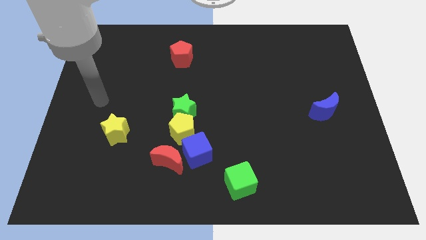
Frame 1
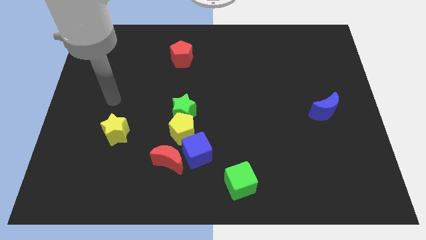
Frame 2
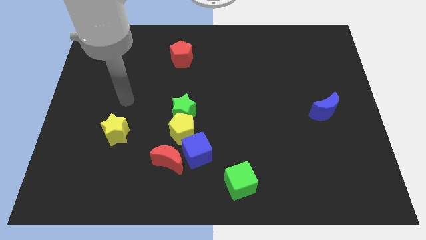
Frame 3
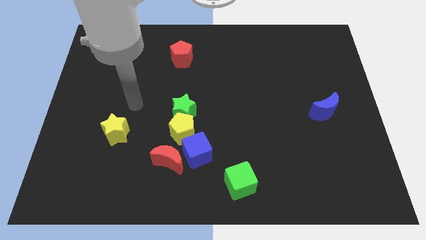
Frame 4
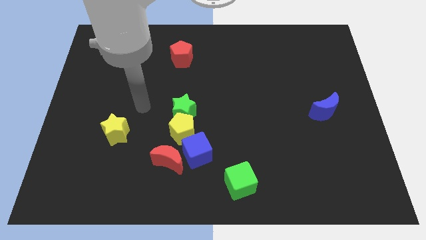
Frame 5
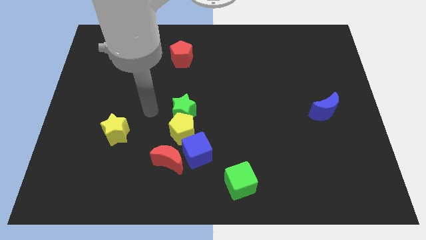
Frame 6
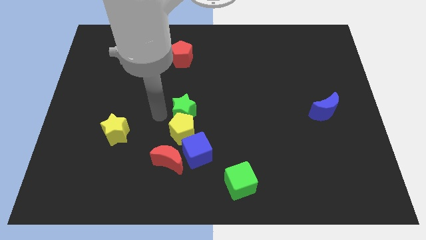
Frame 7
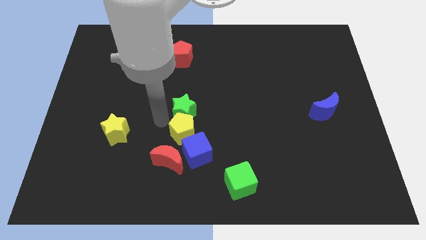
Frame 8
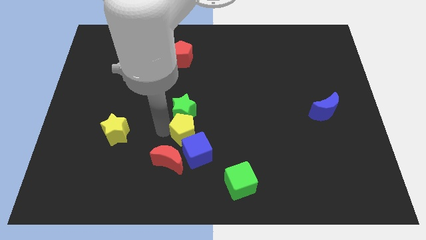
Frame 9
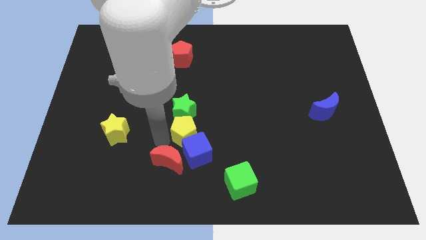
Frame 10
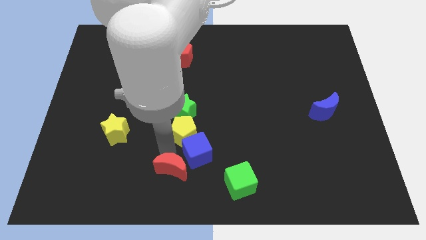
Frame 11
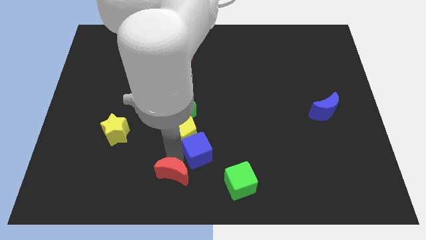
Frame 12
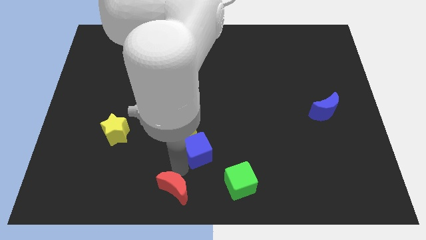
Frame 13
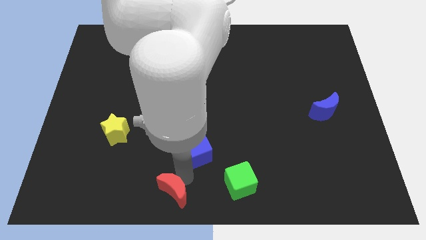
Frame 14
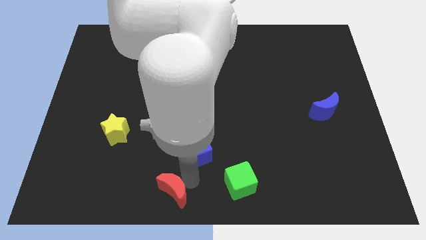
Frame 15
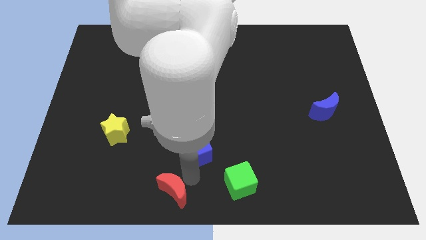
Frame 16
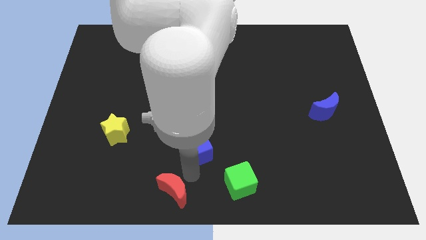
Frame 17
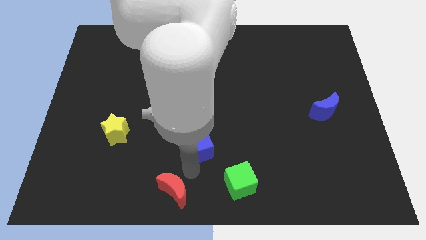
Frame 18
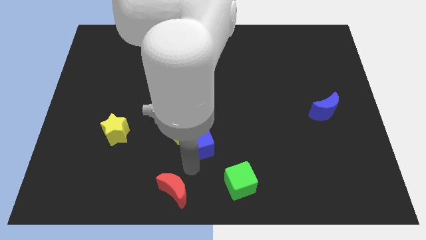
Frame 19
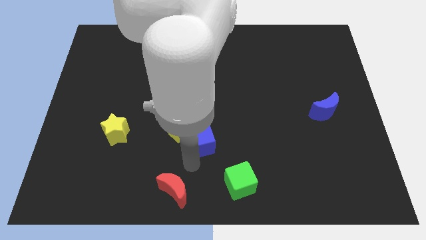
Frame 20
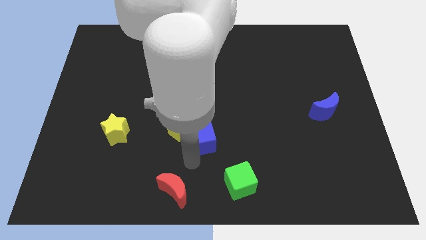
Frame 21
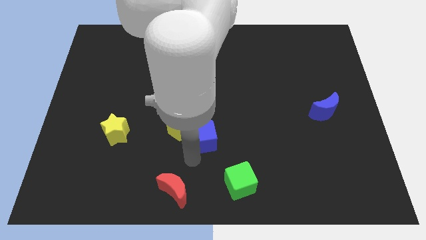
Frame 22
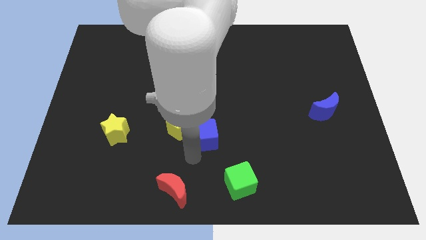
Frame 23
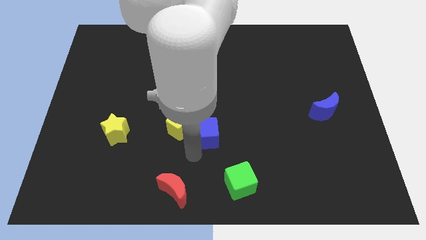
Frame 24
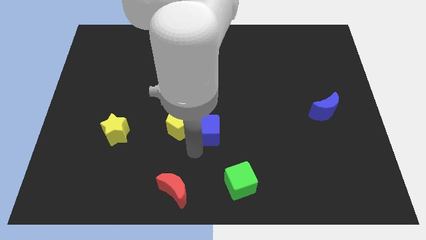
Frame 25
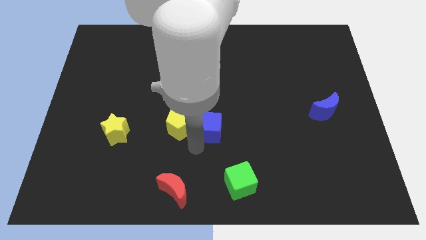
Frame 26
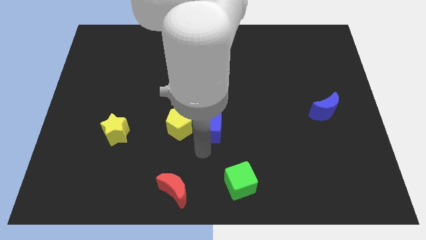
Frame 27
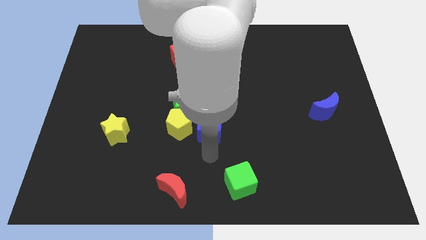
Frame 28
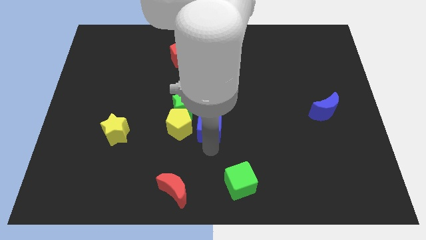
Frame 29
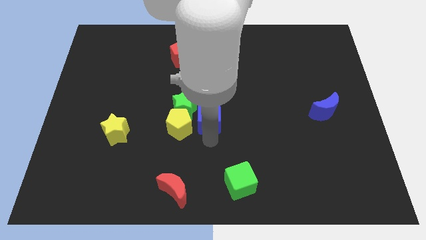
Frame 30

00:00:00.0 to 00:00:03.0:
move the blue cube a bit upwards

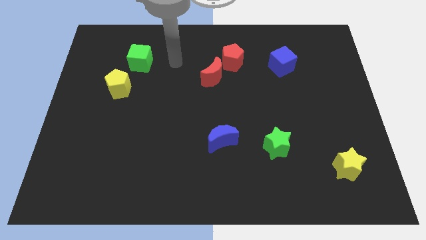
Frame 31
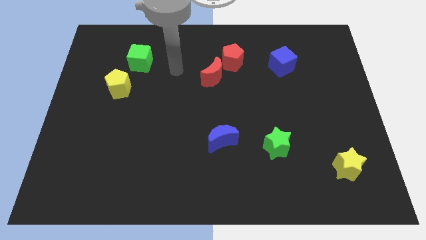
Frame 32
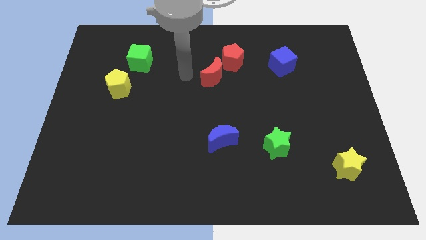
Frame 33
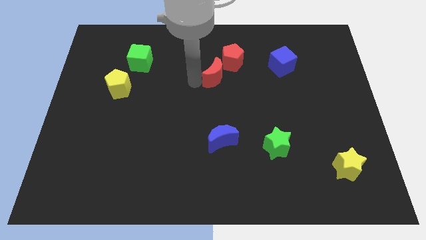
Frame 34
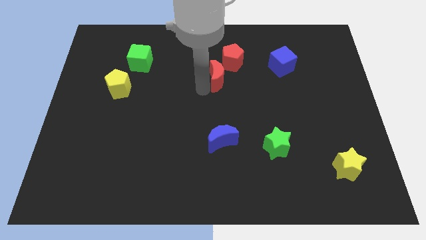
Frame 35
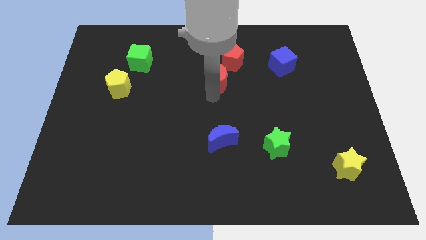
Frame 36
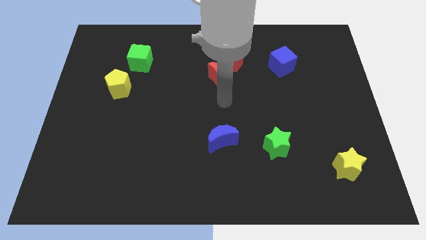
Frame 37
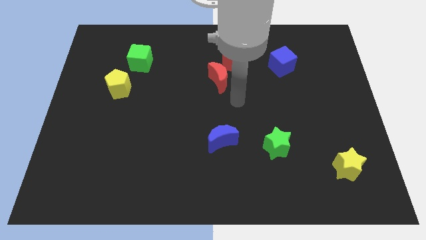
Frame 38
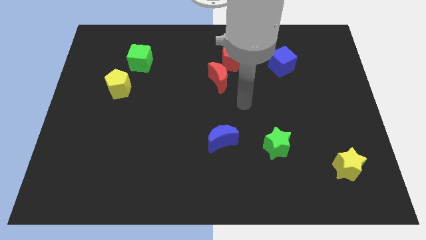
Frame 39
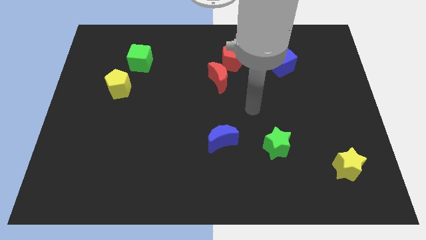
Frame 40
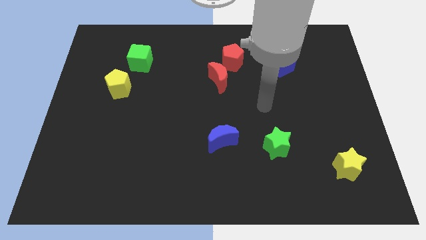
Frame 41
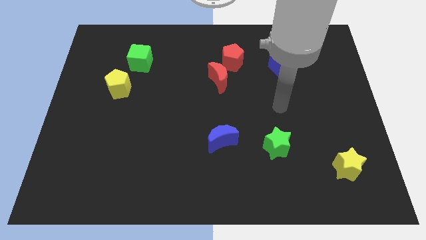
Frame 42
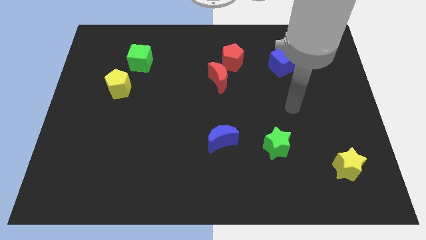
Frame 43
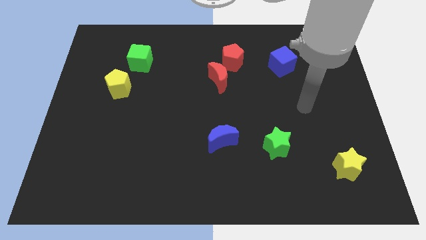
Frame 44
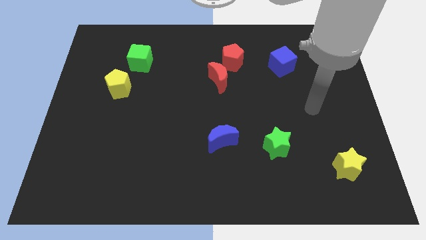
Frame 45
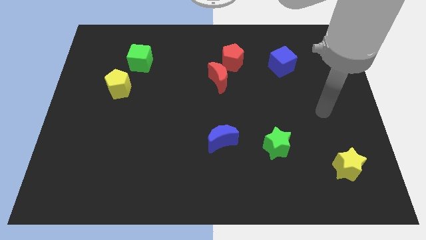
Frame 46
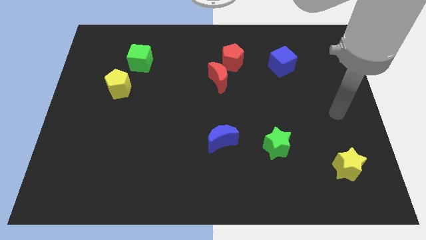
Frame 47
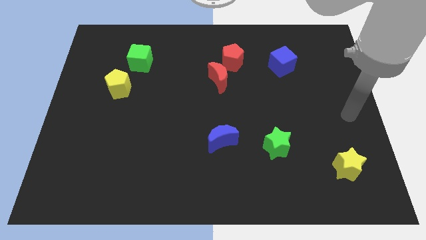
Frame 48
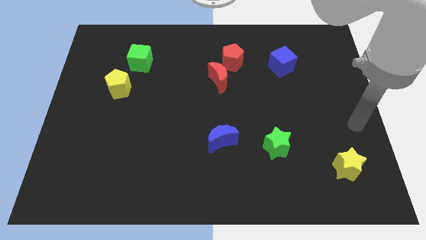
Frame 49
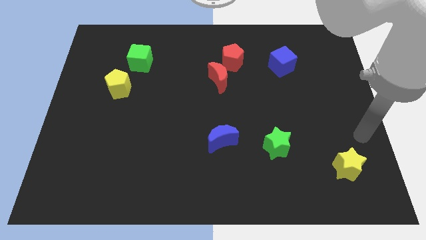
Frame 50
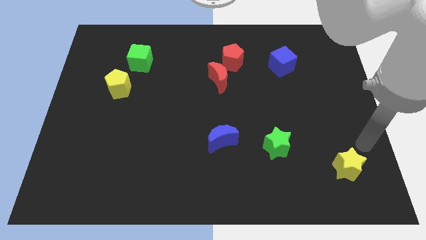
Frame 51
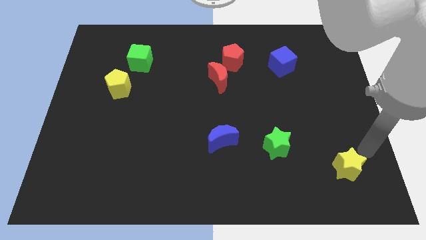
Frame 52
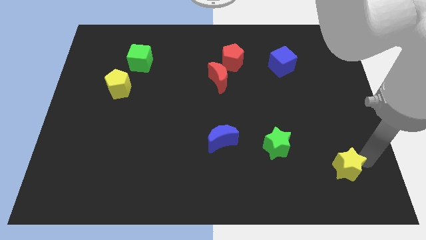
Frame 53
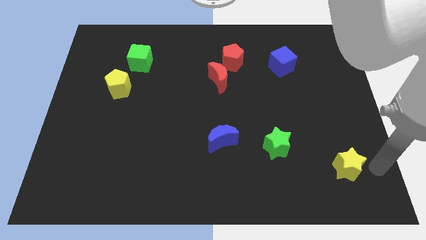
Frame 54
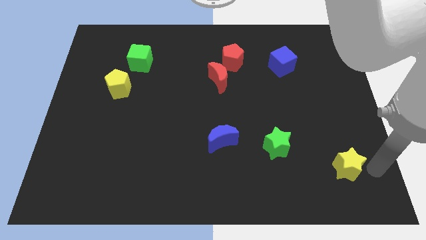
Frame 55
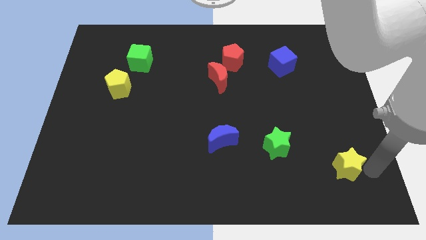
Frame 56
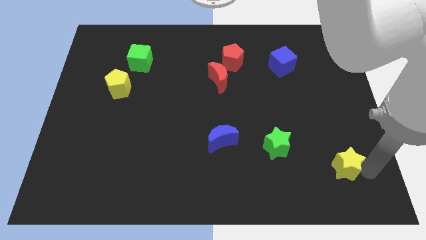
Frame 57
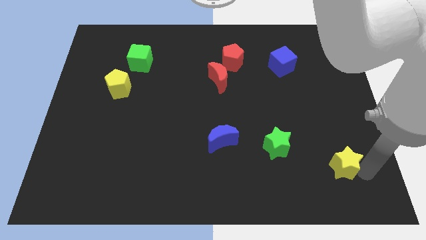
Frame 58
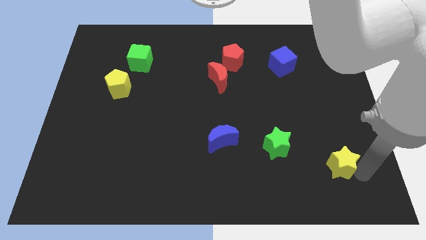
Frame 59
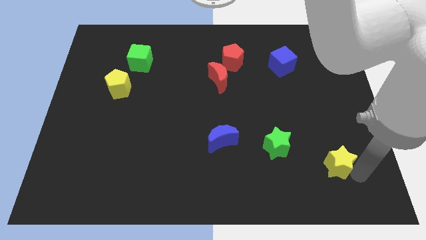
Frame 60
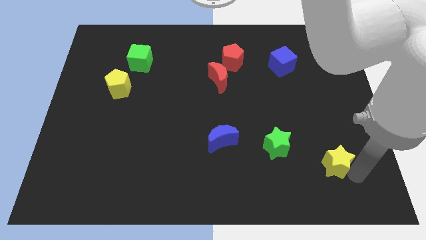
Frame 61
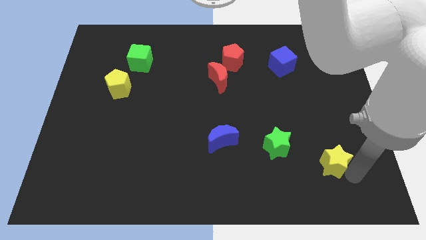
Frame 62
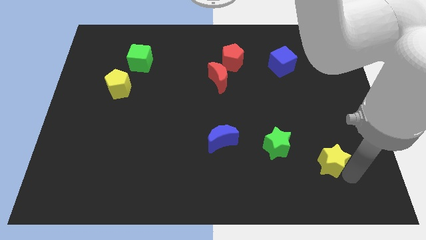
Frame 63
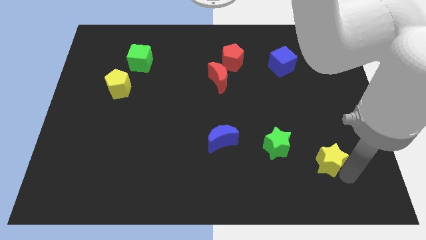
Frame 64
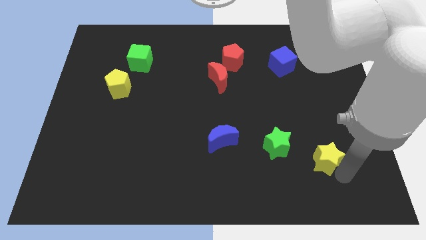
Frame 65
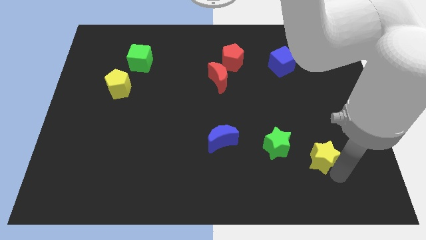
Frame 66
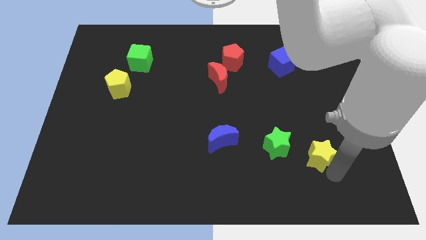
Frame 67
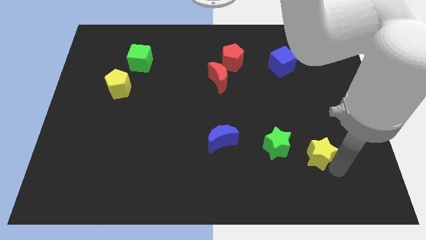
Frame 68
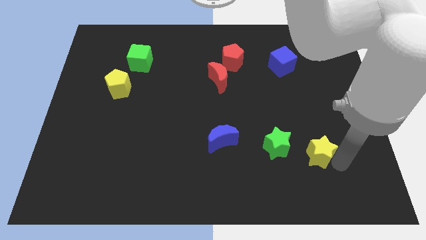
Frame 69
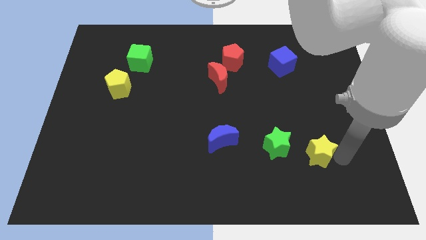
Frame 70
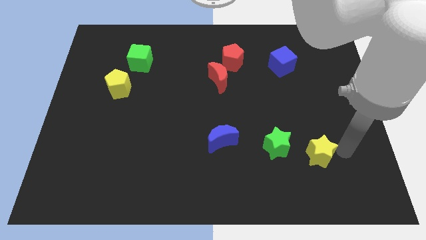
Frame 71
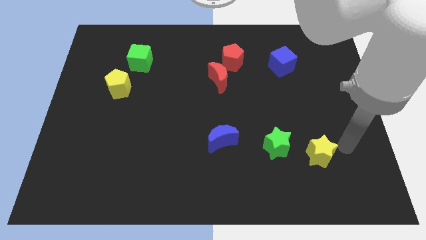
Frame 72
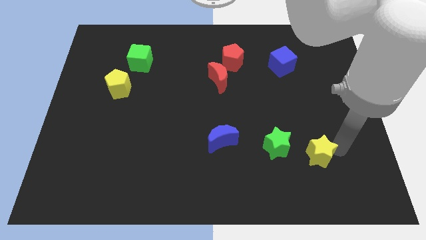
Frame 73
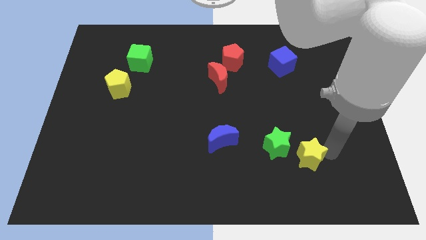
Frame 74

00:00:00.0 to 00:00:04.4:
slightly push the yellow star to the left

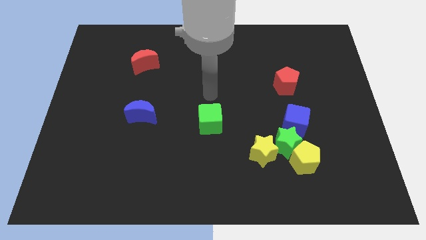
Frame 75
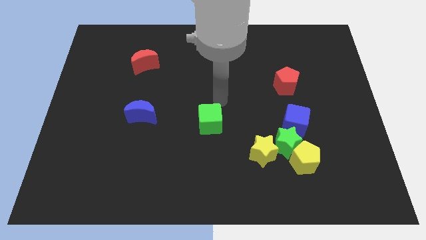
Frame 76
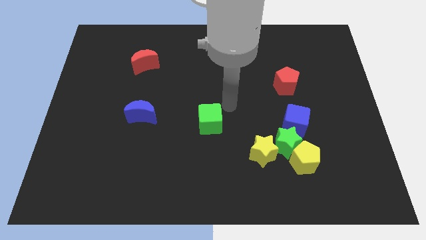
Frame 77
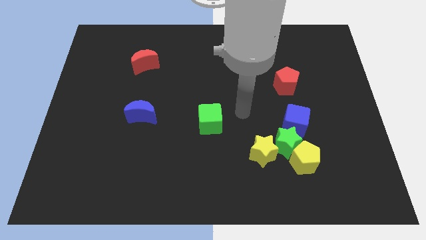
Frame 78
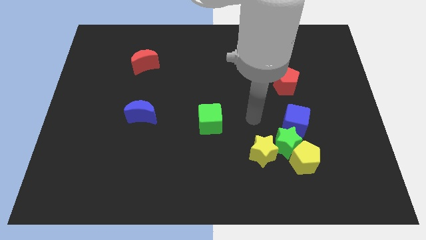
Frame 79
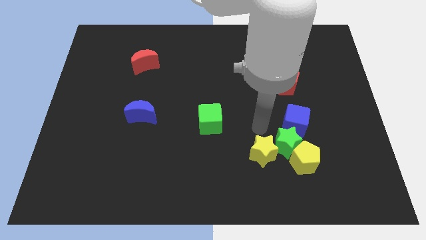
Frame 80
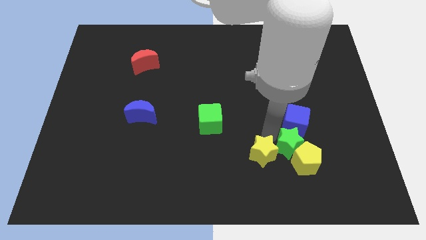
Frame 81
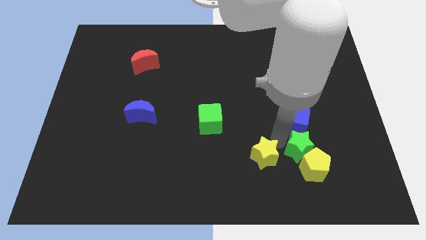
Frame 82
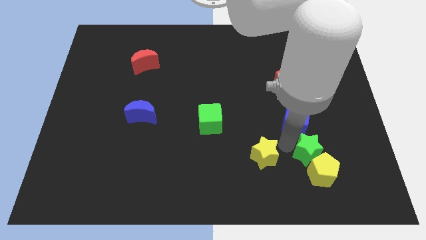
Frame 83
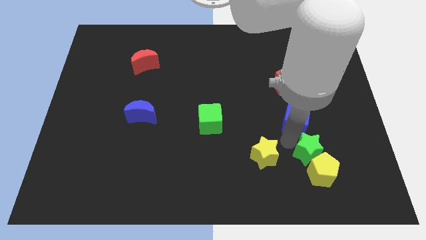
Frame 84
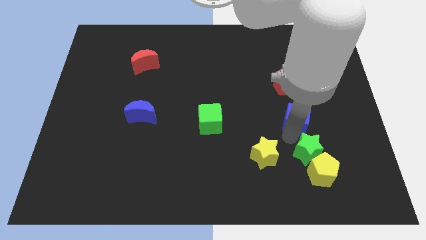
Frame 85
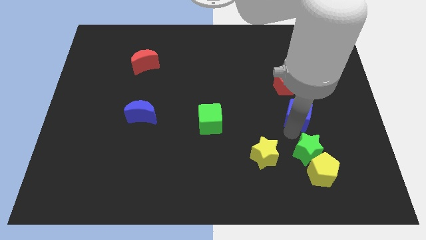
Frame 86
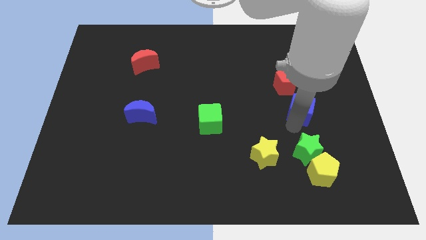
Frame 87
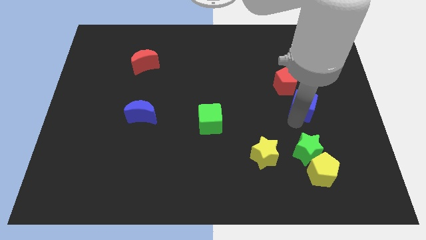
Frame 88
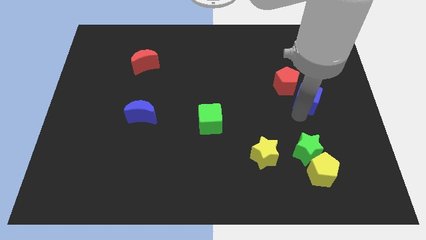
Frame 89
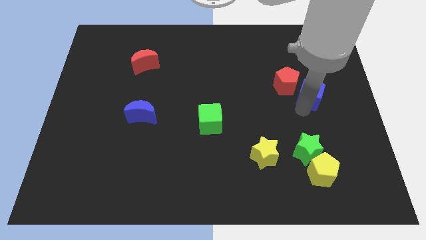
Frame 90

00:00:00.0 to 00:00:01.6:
push the blue cube up a little bit
